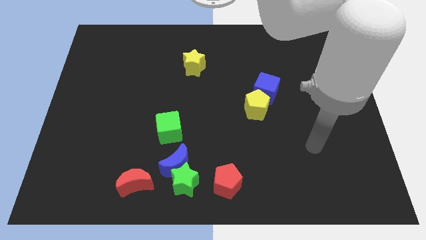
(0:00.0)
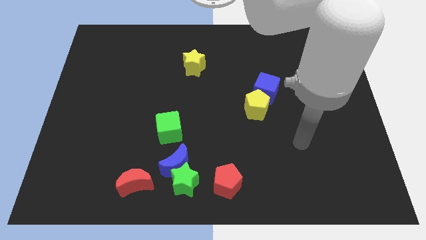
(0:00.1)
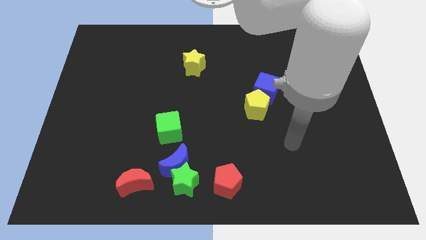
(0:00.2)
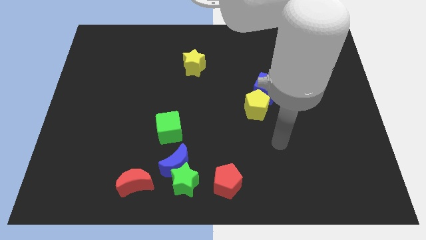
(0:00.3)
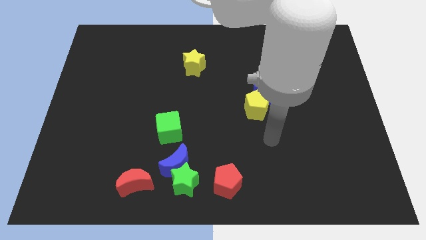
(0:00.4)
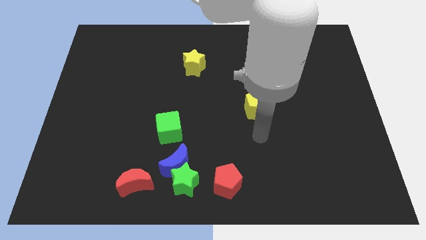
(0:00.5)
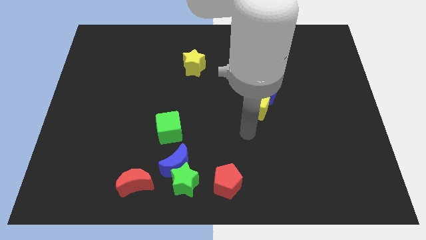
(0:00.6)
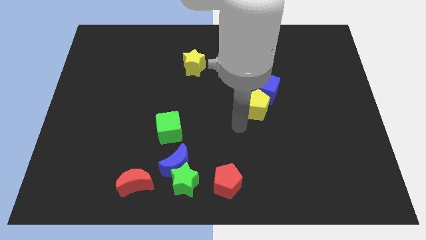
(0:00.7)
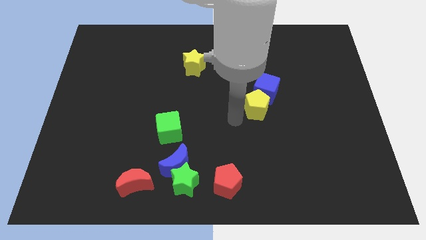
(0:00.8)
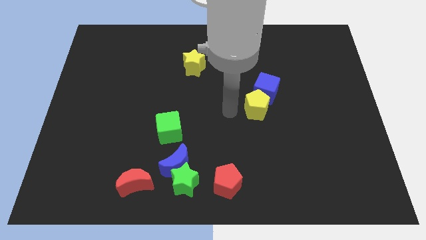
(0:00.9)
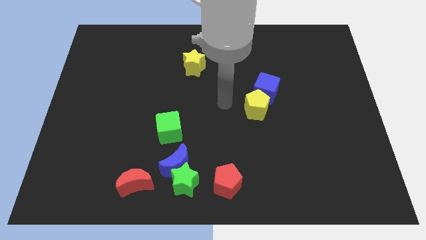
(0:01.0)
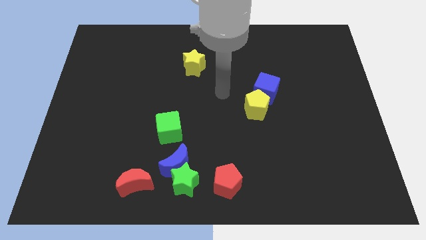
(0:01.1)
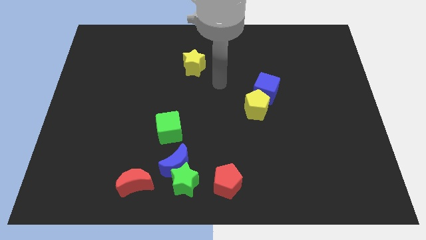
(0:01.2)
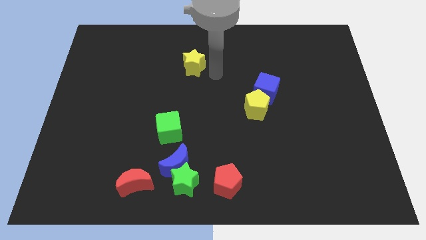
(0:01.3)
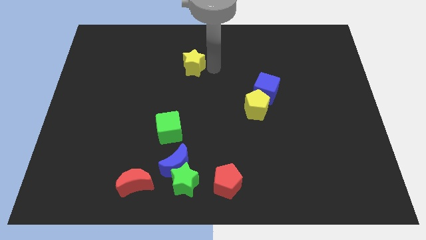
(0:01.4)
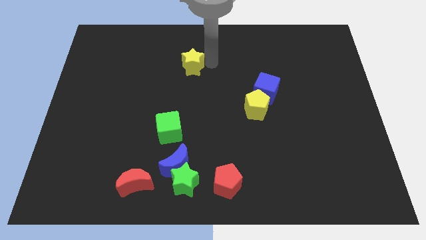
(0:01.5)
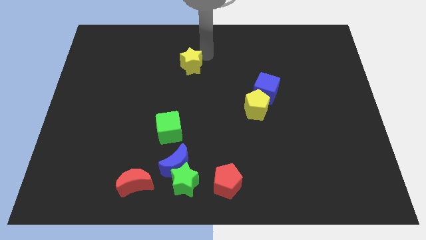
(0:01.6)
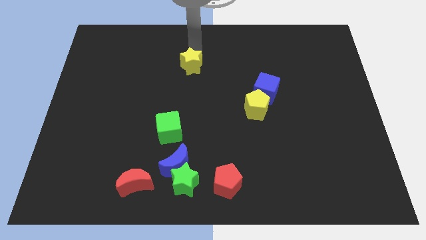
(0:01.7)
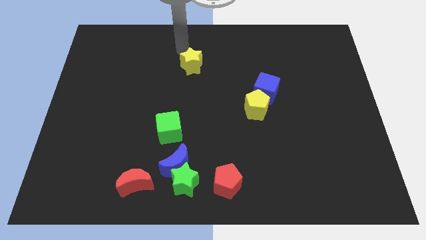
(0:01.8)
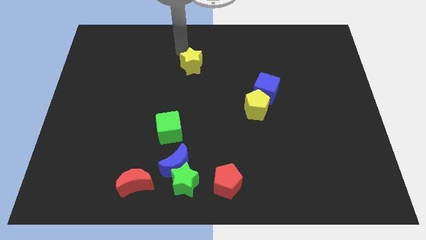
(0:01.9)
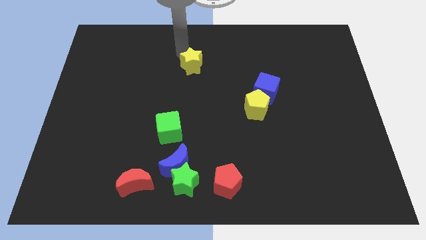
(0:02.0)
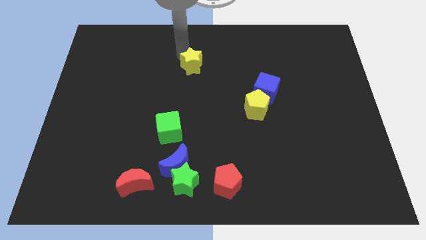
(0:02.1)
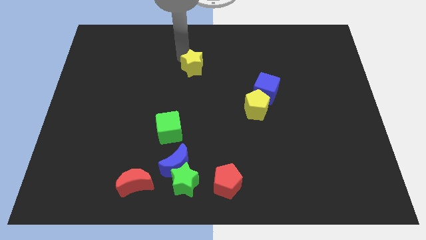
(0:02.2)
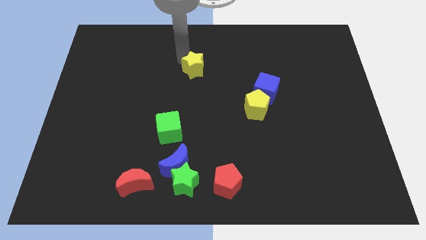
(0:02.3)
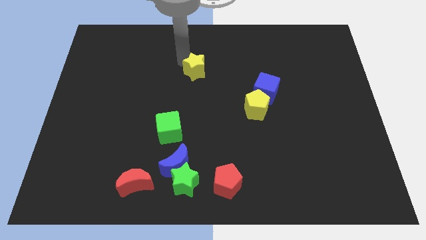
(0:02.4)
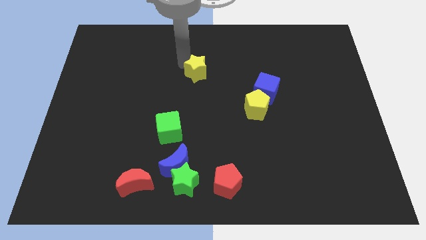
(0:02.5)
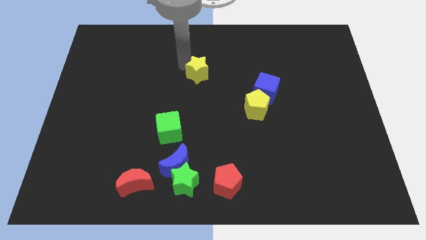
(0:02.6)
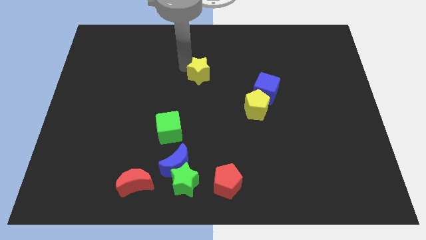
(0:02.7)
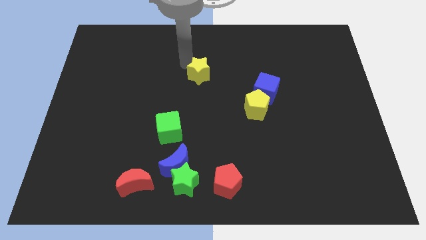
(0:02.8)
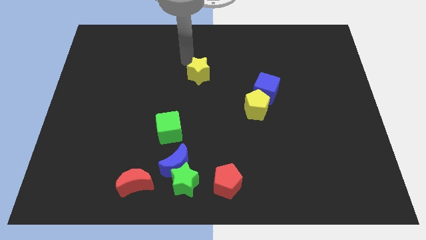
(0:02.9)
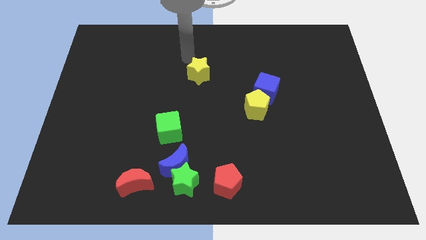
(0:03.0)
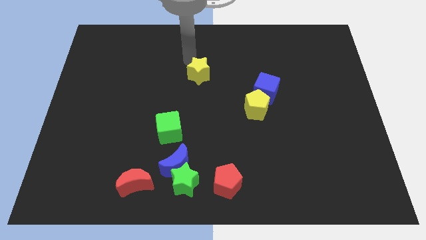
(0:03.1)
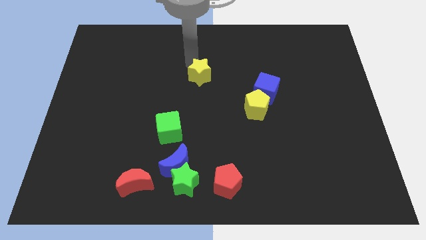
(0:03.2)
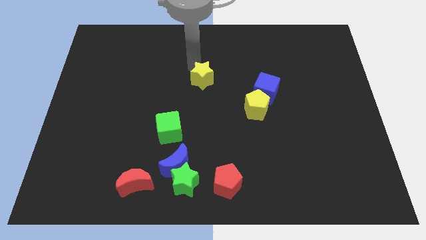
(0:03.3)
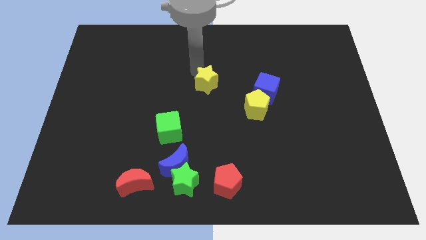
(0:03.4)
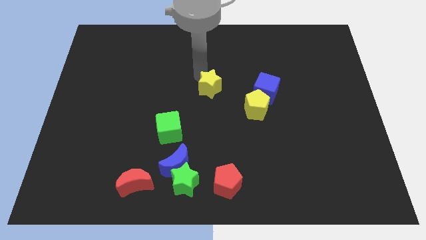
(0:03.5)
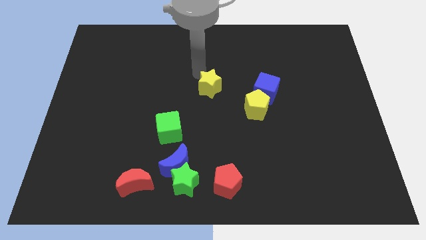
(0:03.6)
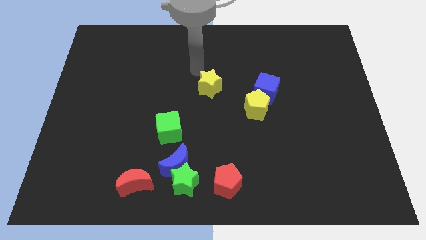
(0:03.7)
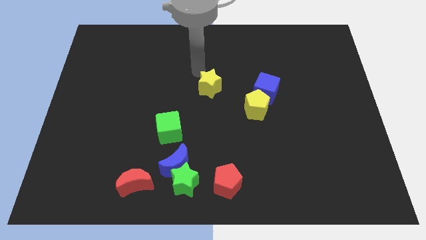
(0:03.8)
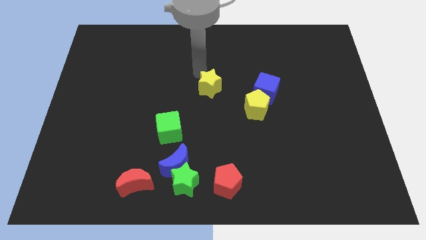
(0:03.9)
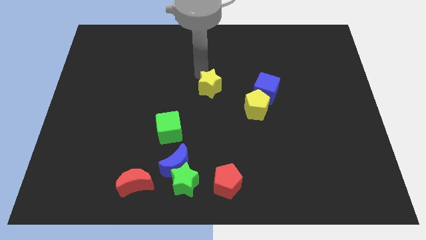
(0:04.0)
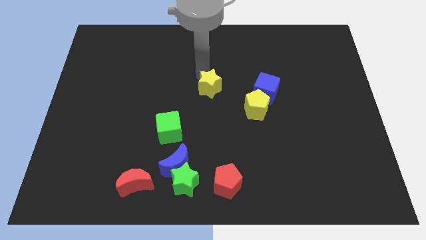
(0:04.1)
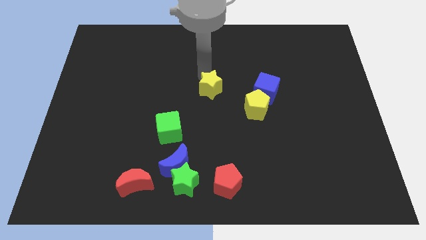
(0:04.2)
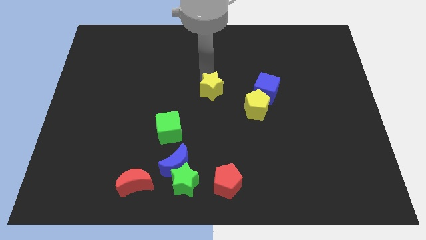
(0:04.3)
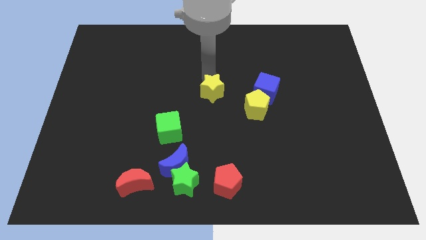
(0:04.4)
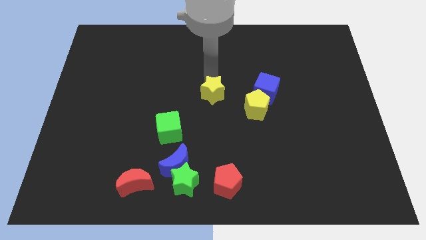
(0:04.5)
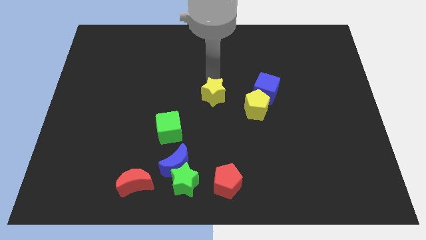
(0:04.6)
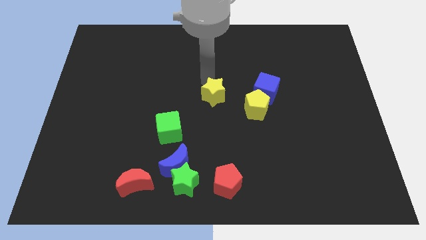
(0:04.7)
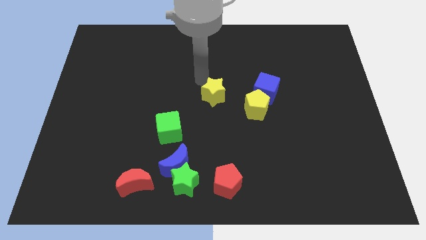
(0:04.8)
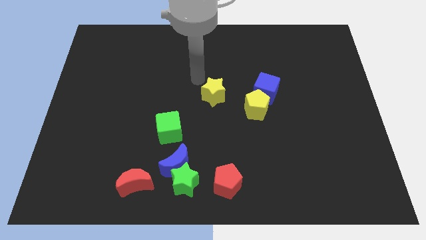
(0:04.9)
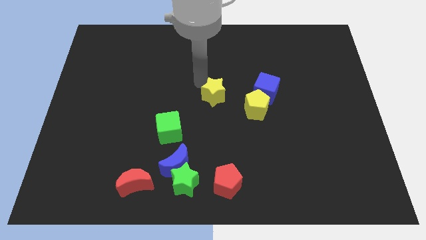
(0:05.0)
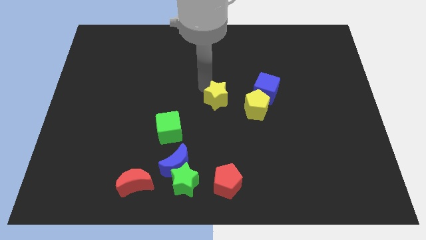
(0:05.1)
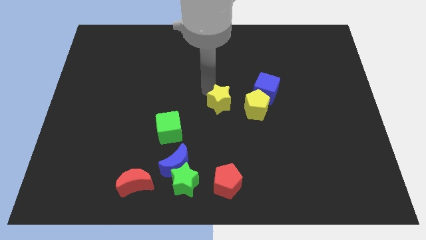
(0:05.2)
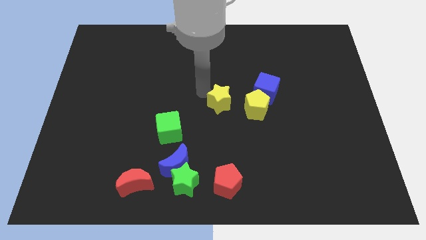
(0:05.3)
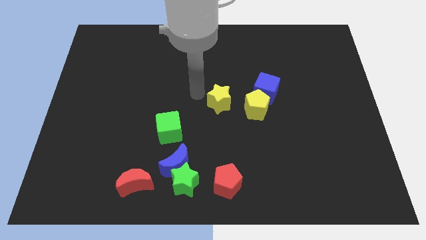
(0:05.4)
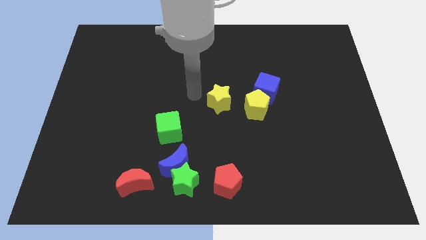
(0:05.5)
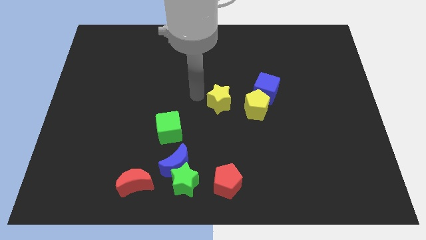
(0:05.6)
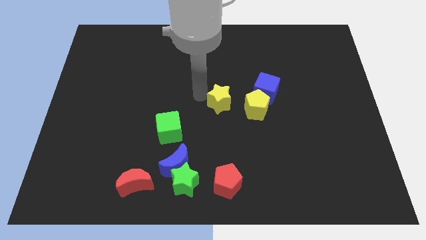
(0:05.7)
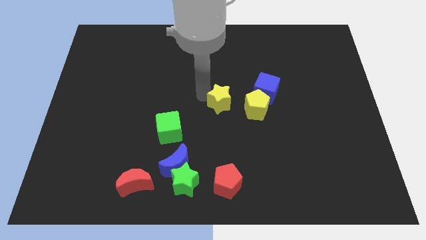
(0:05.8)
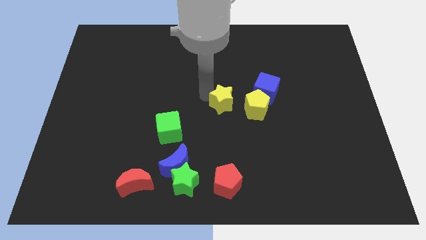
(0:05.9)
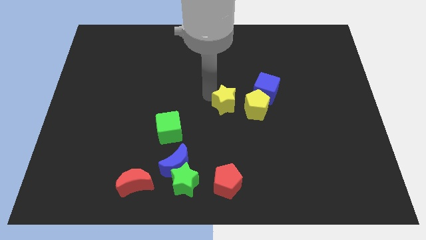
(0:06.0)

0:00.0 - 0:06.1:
put the yellow star to the bottom left of the blue cube

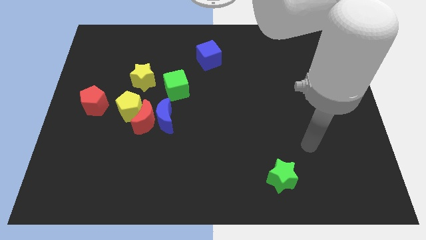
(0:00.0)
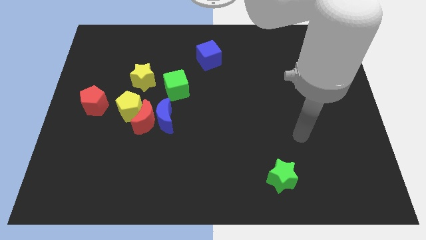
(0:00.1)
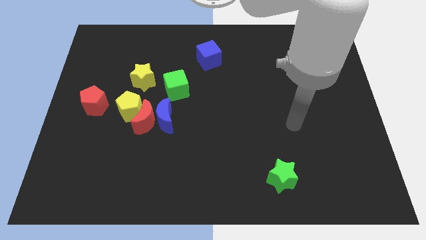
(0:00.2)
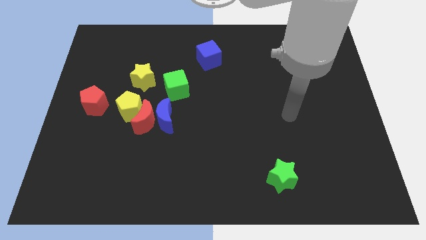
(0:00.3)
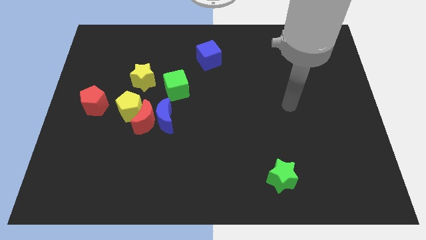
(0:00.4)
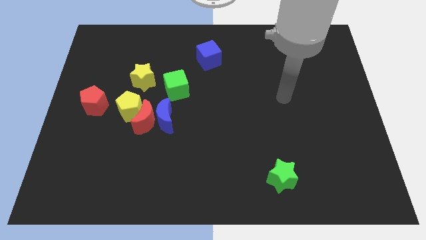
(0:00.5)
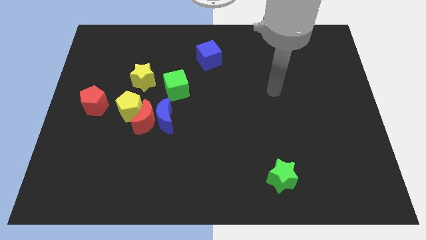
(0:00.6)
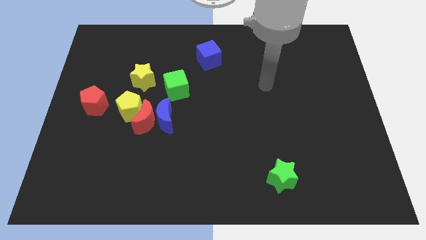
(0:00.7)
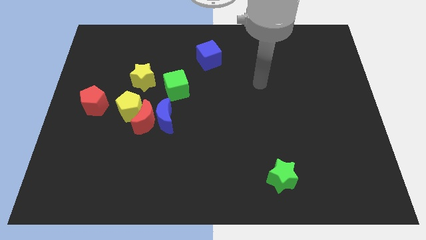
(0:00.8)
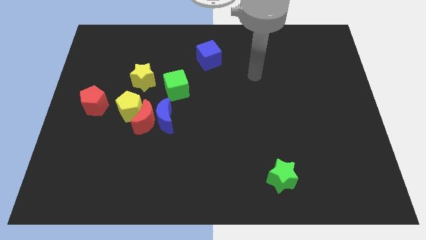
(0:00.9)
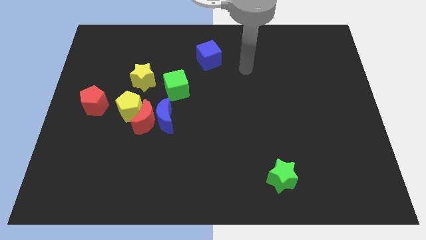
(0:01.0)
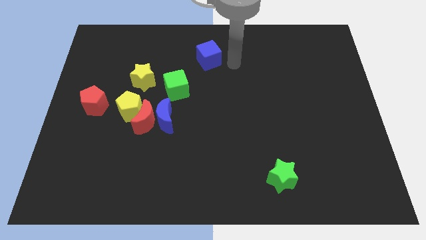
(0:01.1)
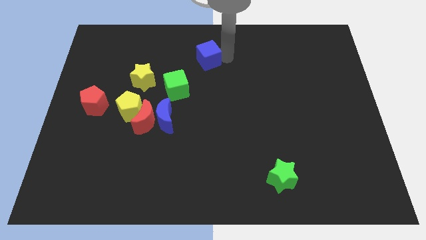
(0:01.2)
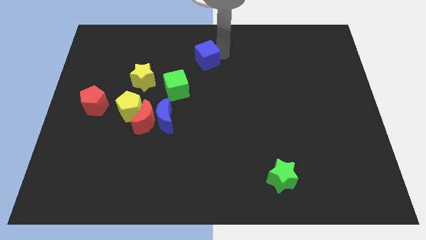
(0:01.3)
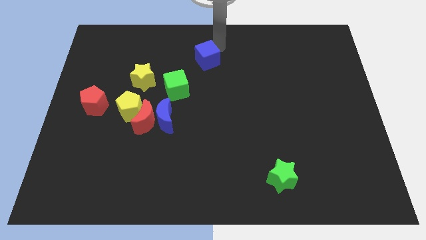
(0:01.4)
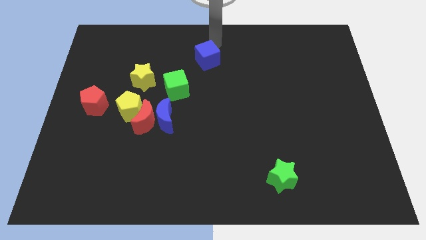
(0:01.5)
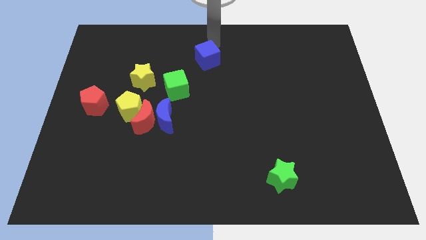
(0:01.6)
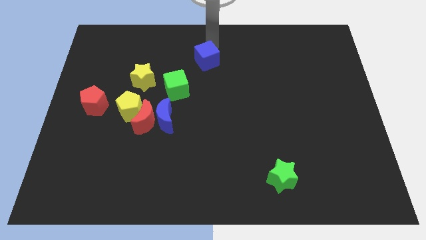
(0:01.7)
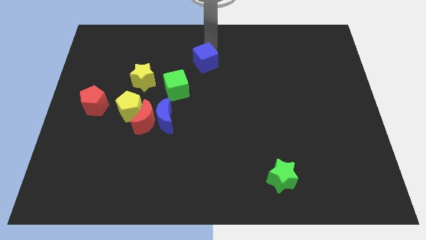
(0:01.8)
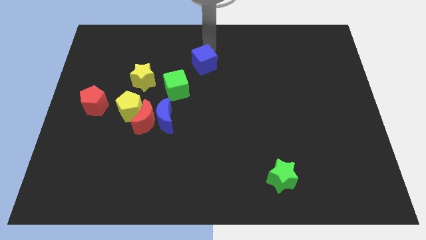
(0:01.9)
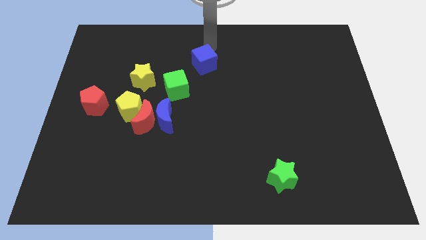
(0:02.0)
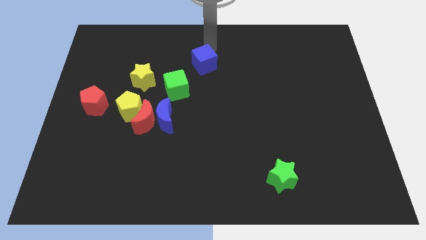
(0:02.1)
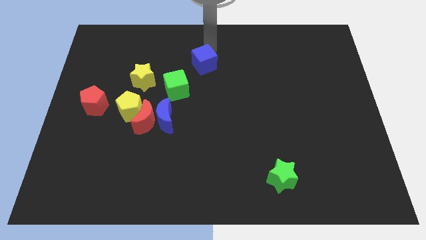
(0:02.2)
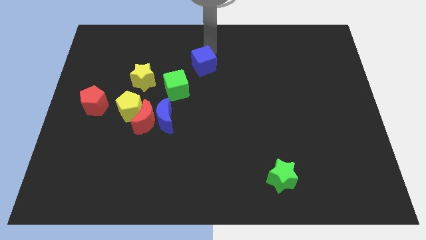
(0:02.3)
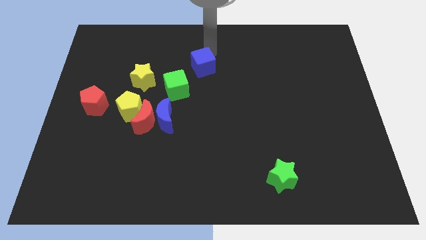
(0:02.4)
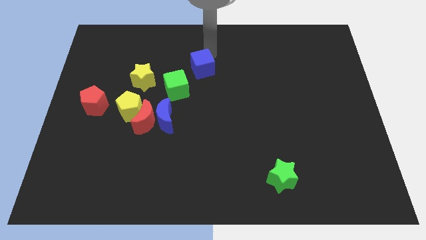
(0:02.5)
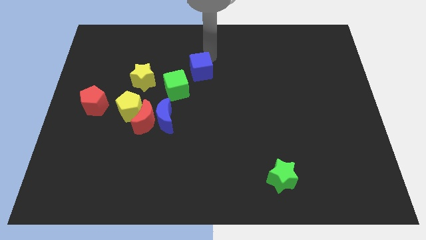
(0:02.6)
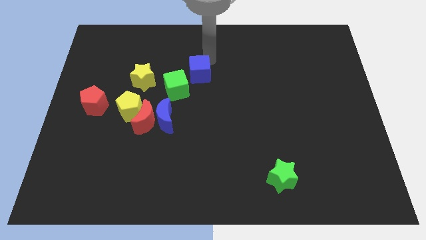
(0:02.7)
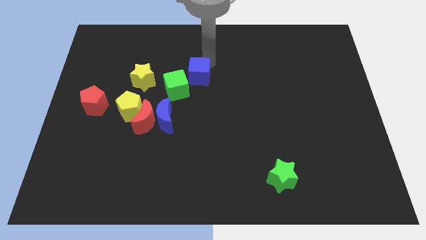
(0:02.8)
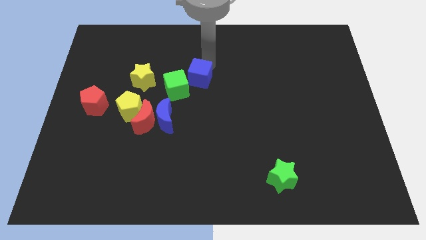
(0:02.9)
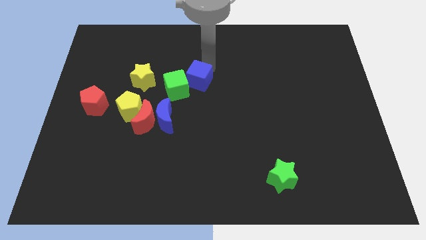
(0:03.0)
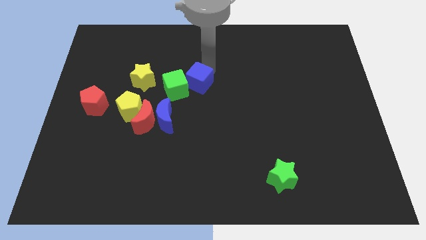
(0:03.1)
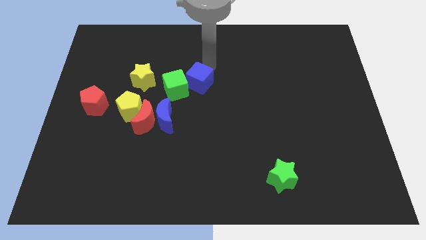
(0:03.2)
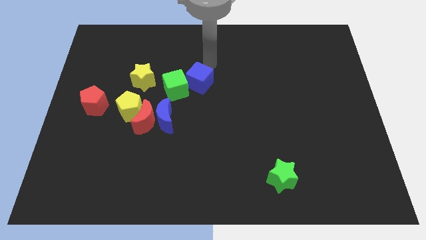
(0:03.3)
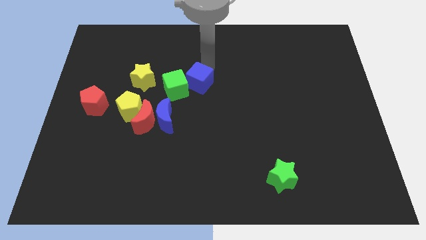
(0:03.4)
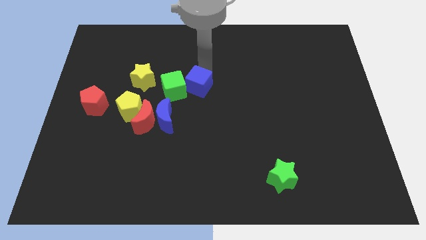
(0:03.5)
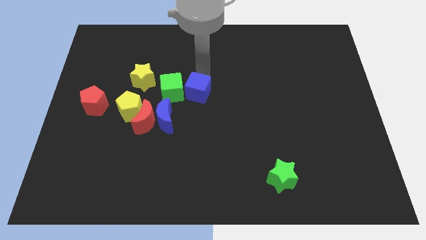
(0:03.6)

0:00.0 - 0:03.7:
put the blue cube to the top right side of the blue moon
